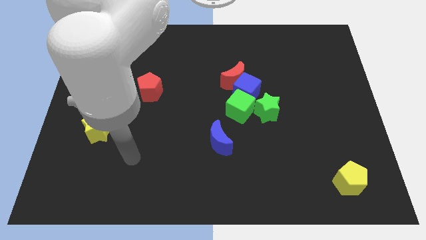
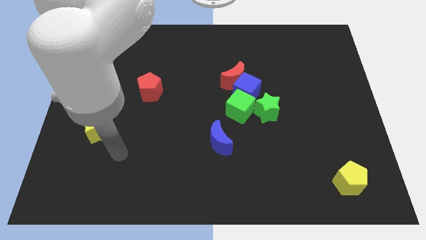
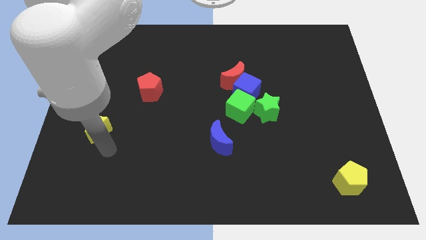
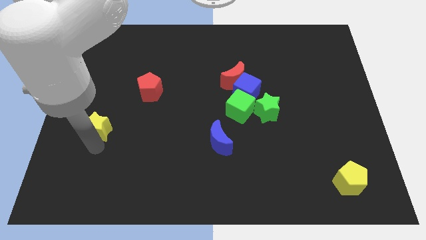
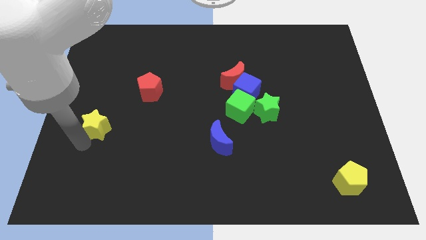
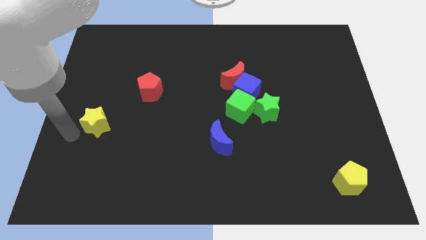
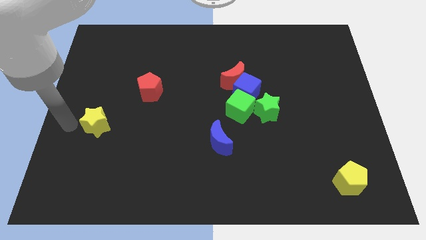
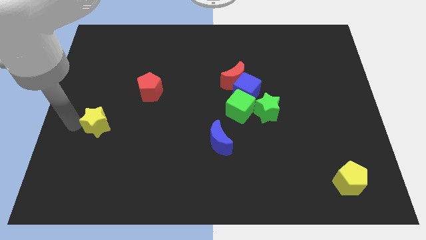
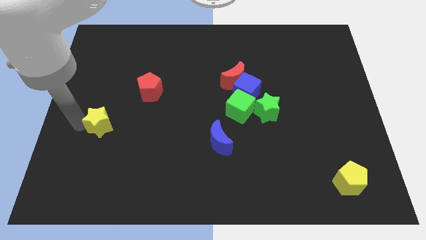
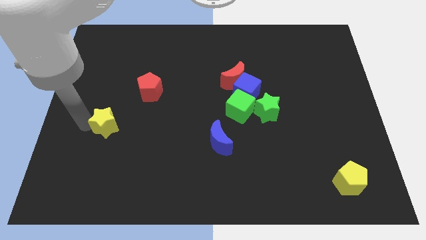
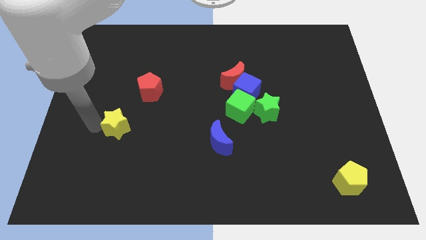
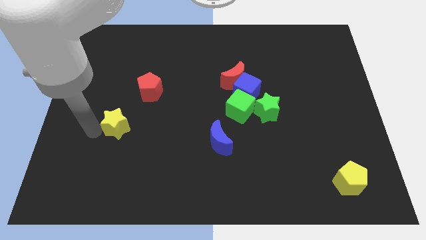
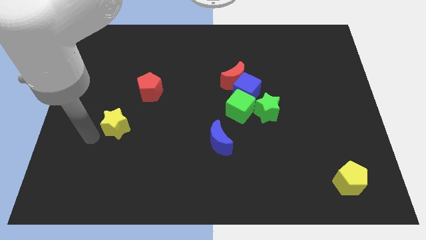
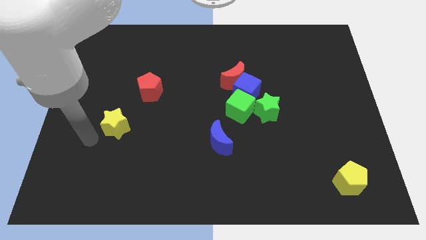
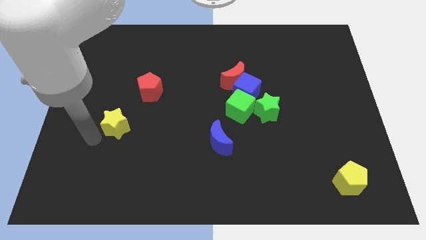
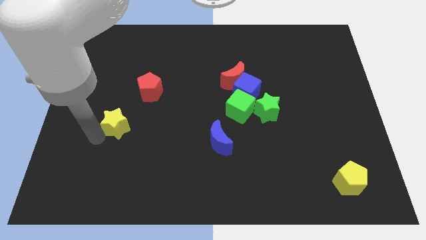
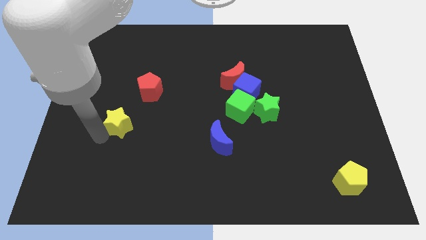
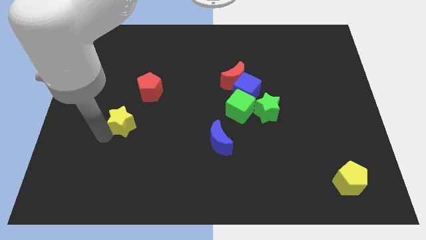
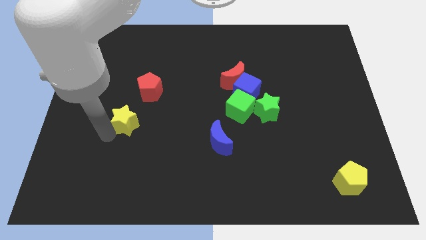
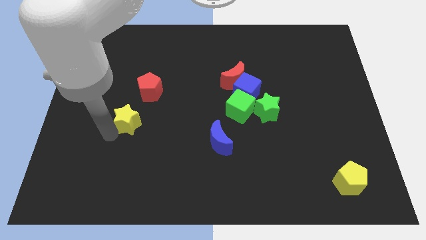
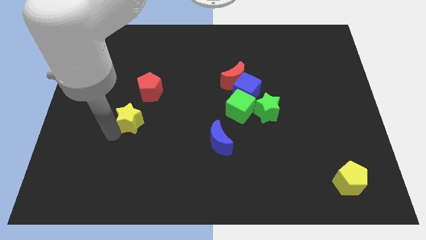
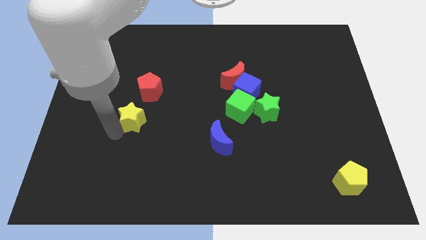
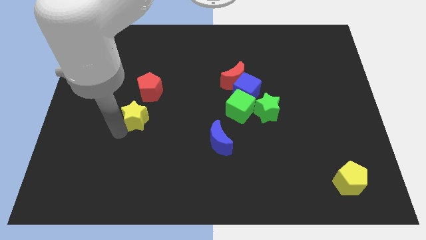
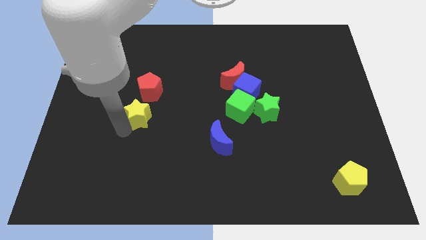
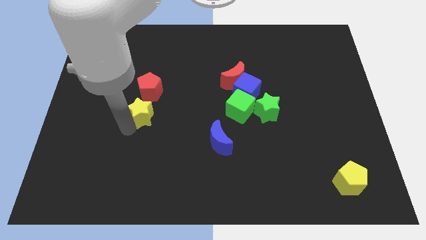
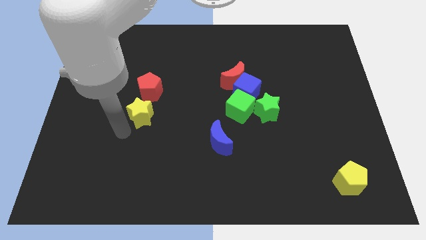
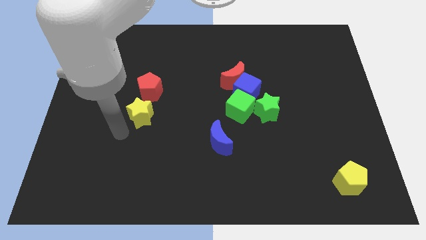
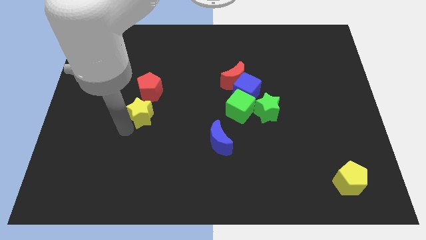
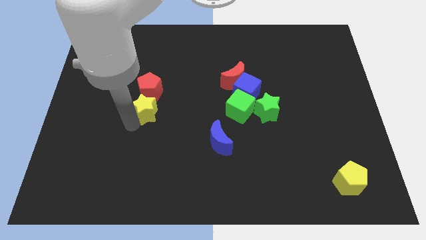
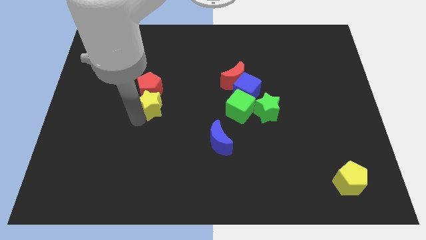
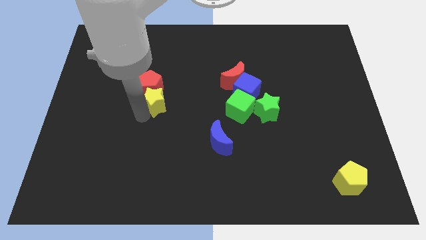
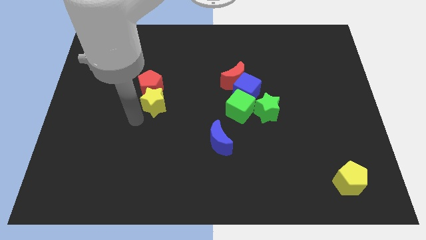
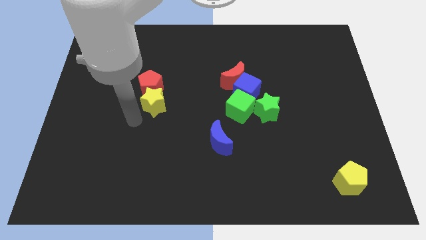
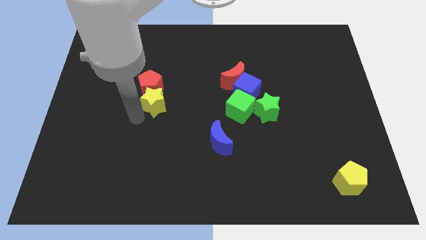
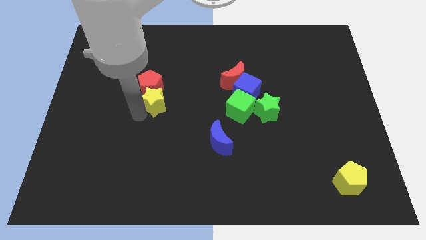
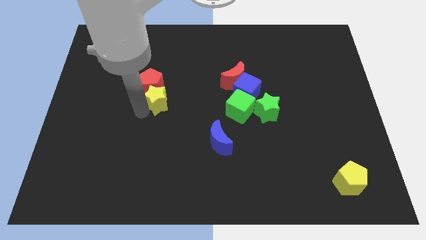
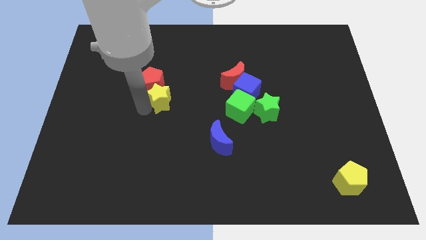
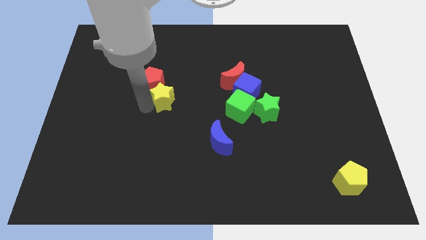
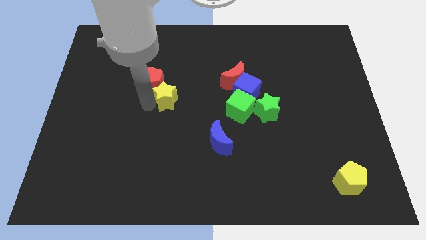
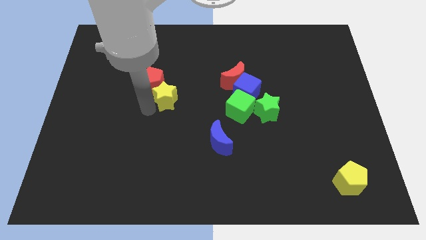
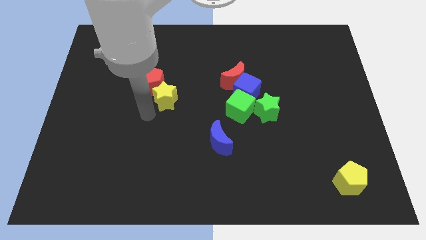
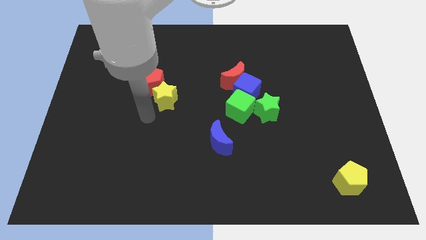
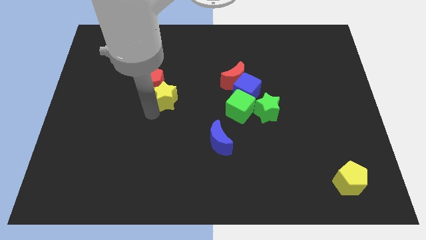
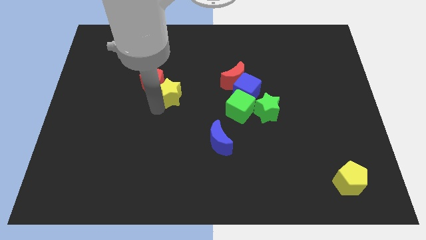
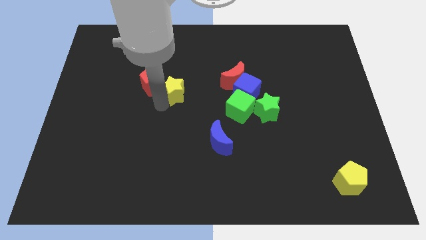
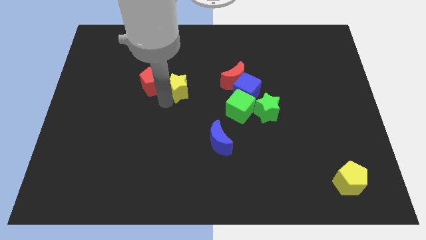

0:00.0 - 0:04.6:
push the yellow star up and then right

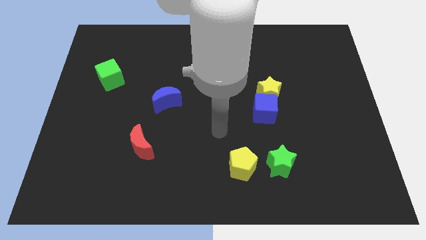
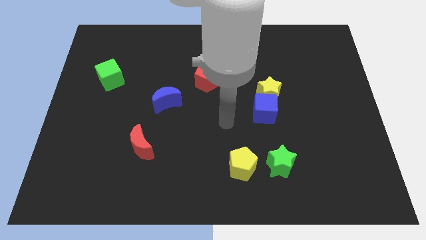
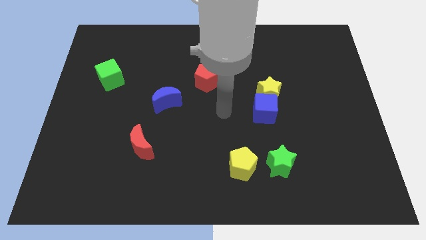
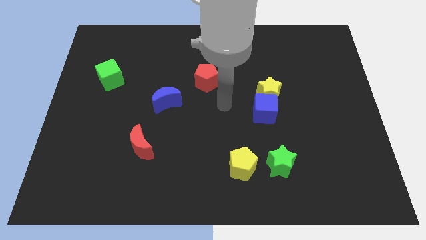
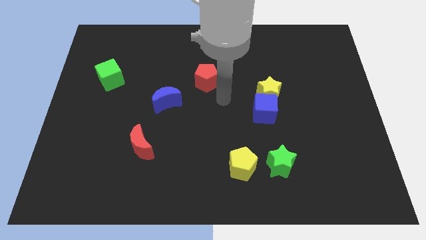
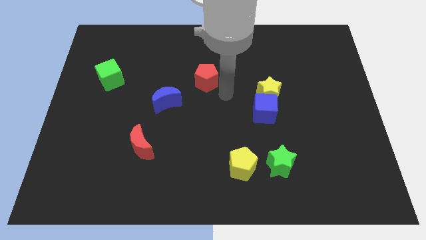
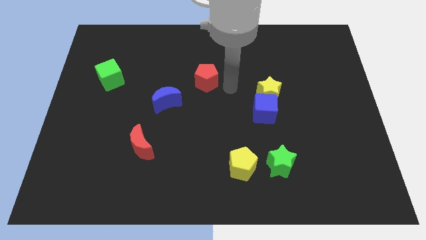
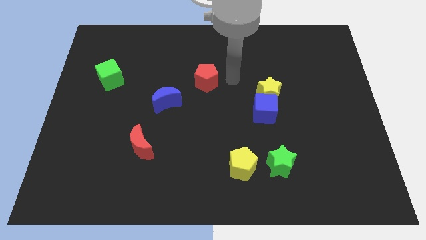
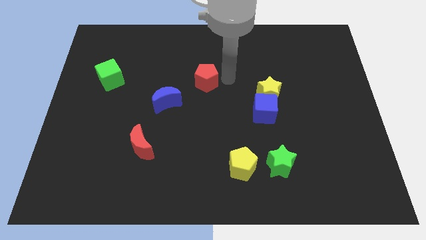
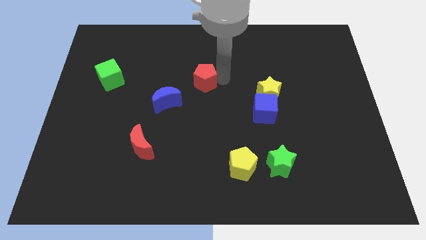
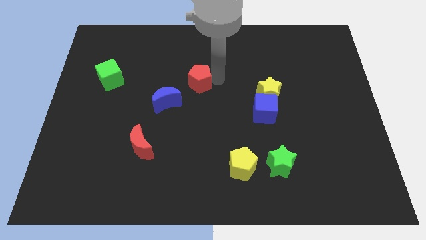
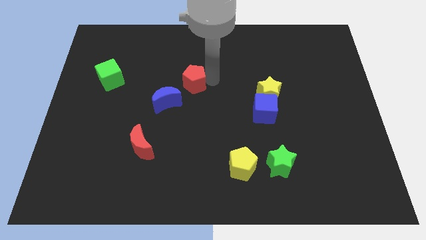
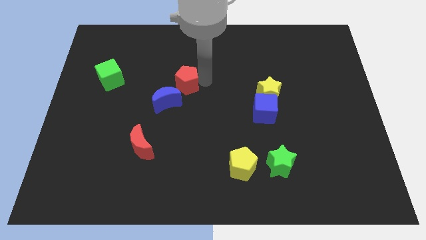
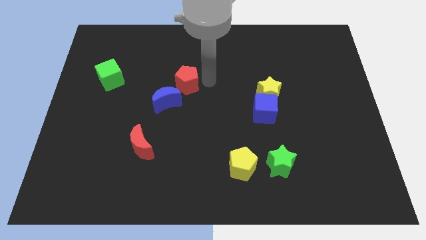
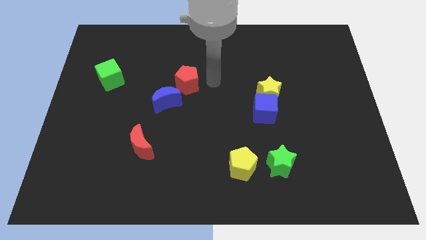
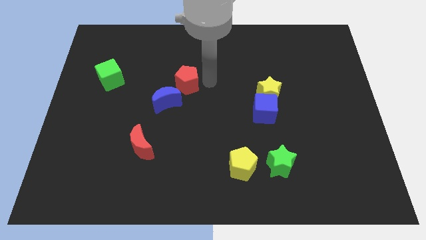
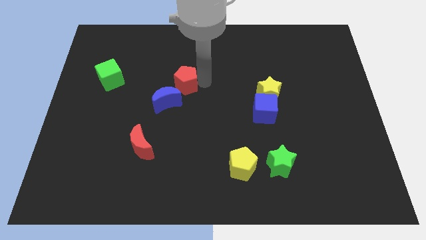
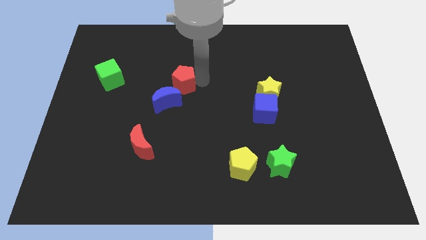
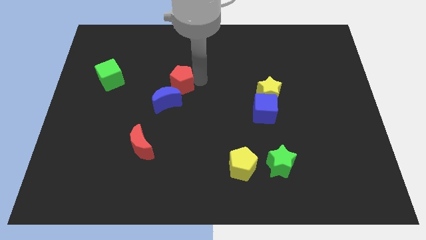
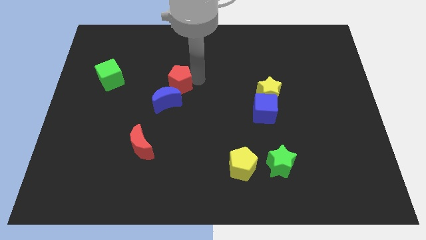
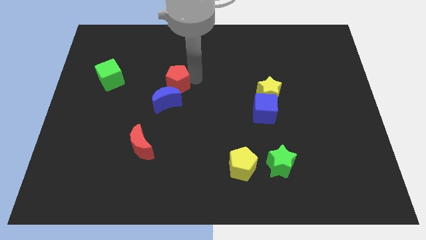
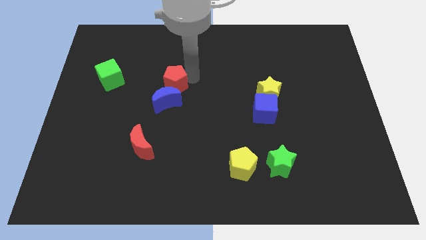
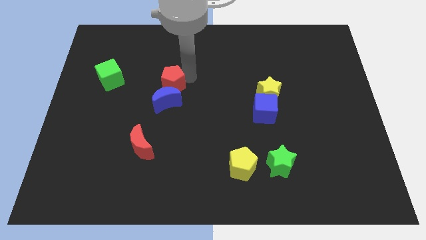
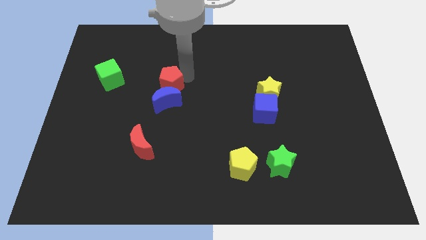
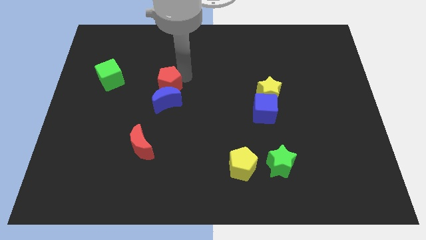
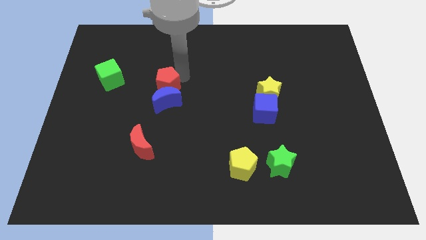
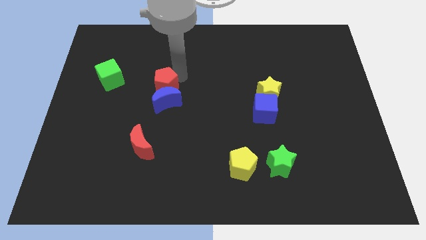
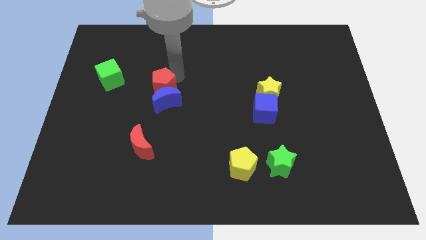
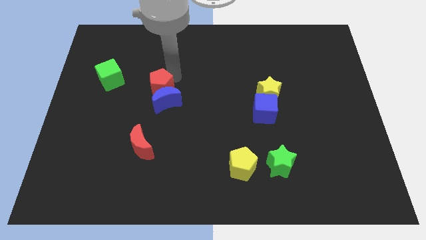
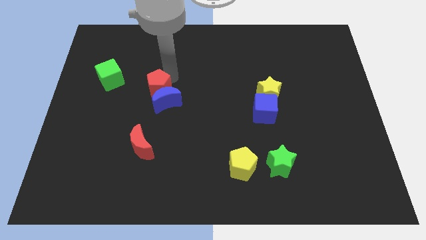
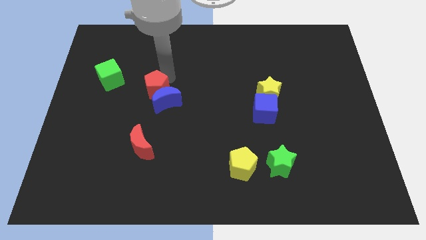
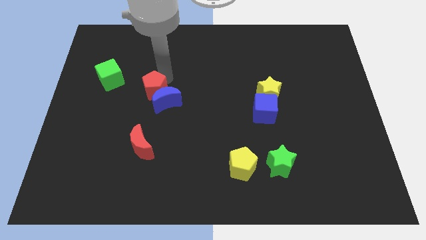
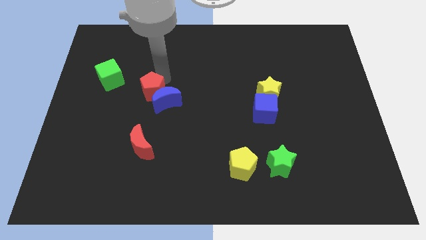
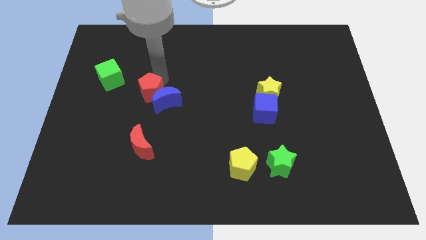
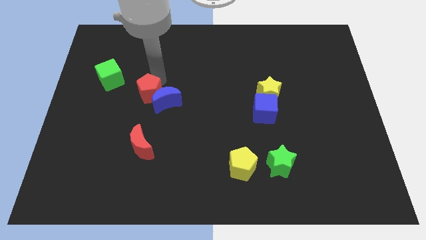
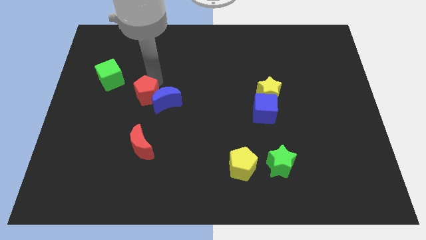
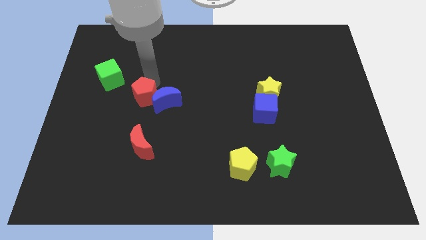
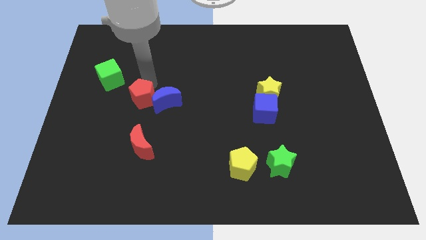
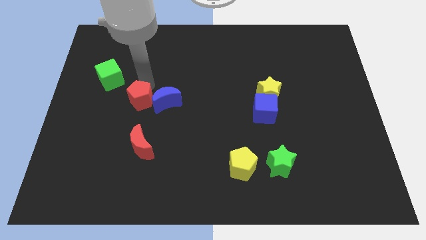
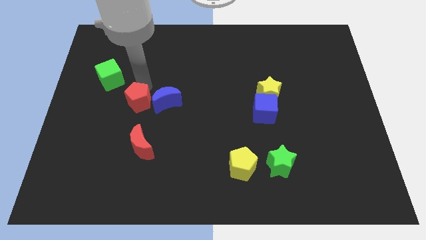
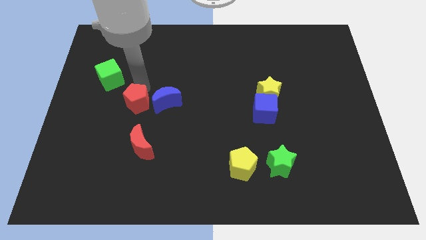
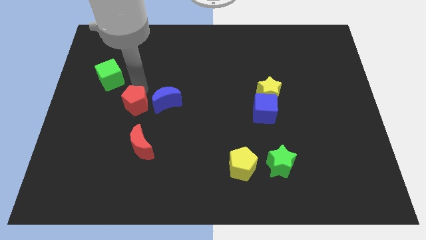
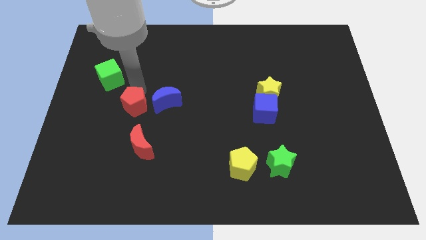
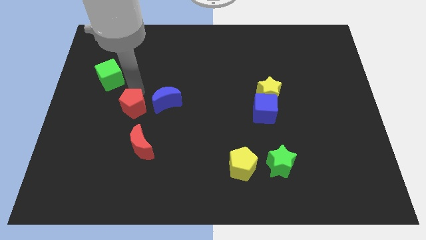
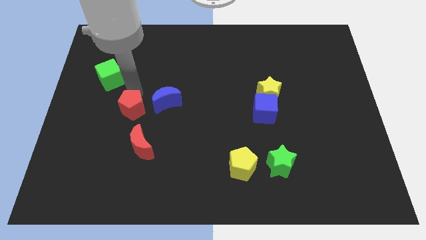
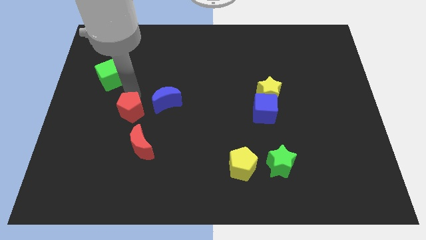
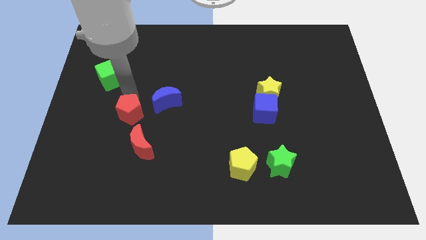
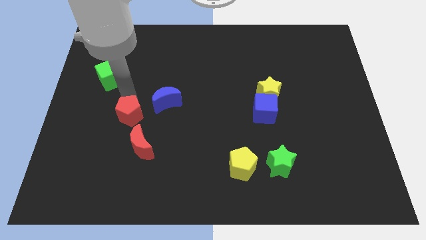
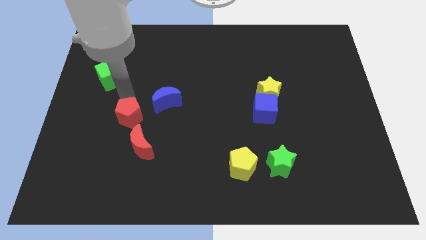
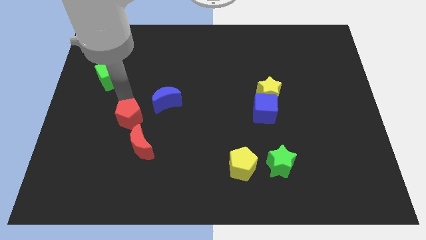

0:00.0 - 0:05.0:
slide the red pentagon down and to the left
